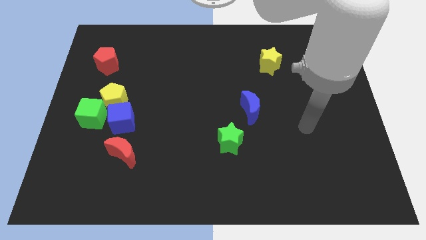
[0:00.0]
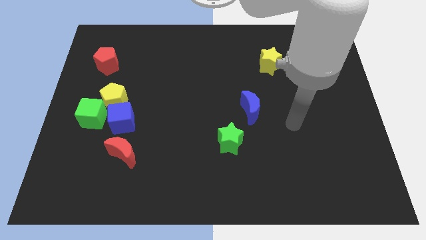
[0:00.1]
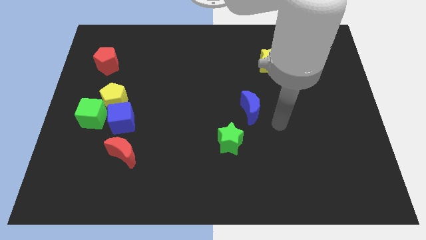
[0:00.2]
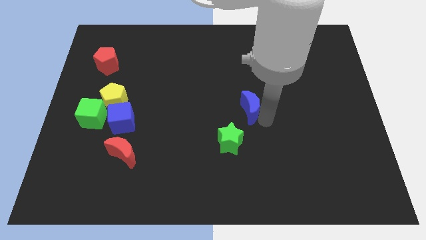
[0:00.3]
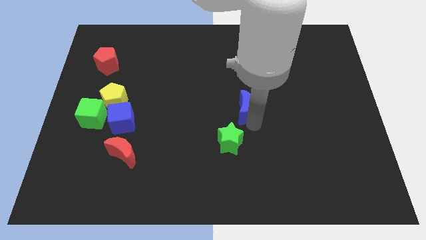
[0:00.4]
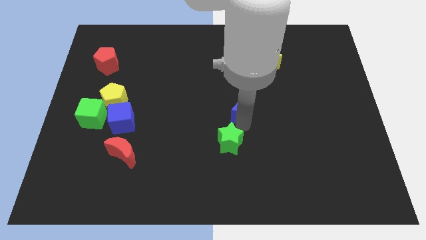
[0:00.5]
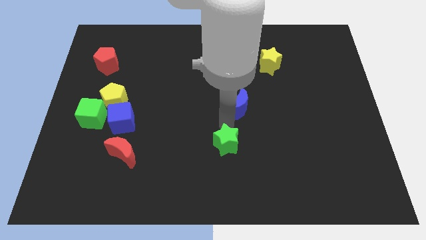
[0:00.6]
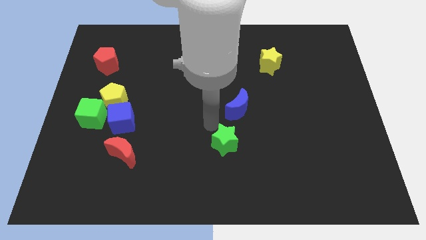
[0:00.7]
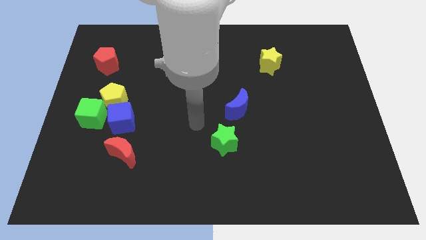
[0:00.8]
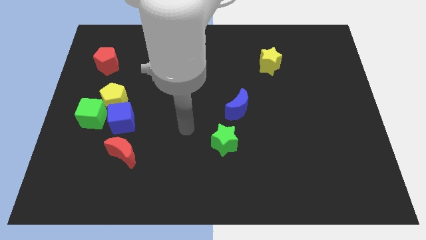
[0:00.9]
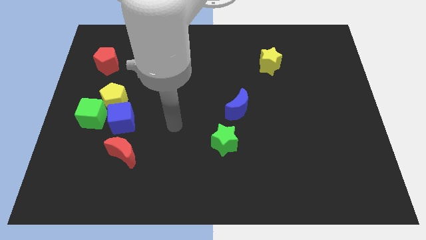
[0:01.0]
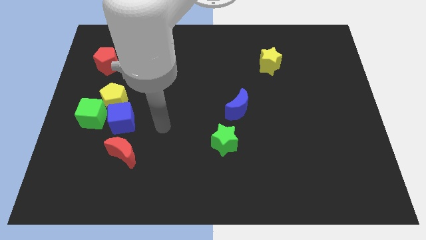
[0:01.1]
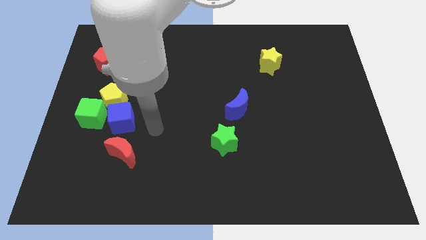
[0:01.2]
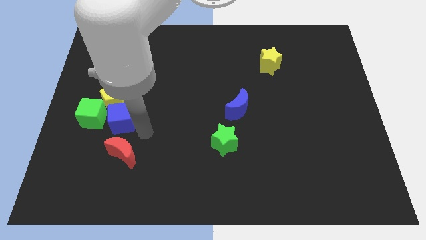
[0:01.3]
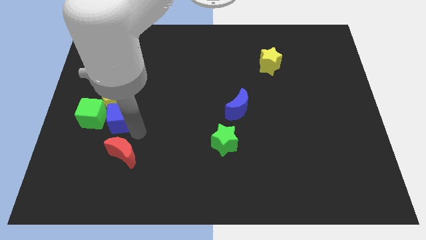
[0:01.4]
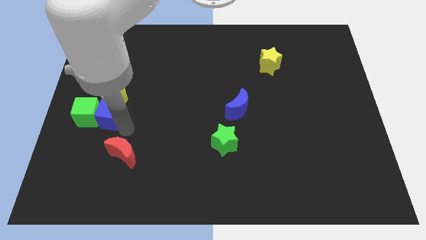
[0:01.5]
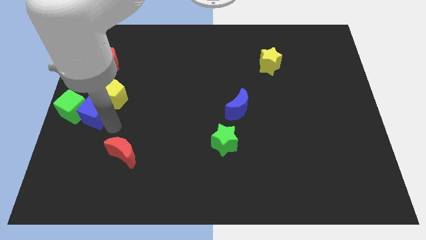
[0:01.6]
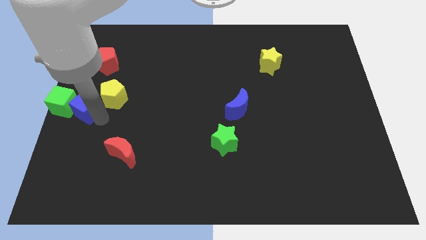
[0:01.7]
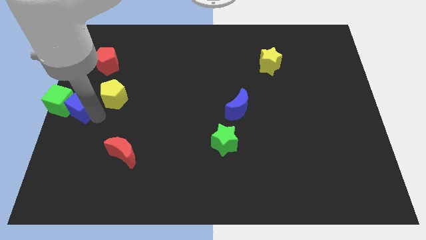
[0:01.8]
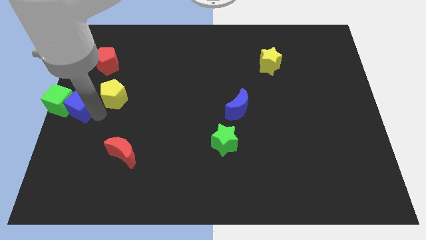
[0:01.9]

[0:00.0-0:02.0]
pull the yellow pentagon apart from the blue cube and green cube

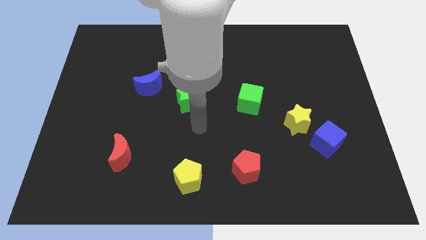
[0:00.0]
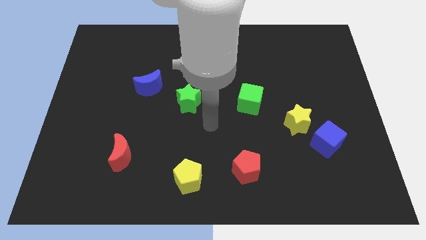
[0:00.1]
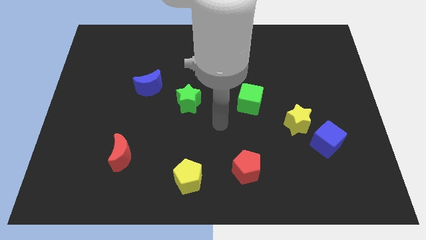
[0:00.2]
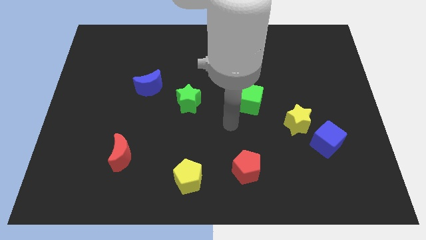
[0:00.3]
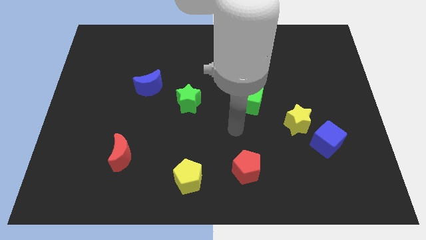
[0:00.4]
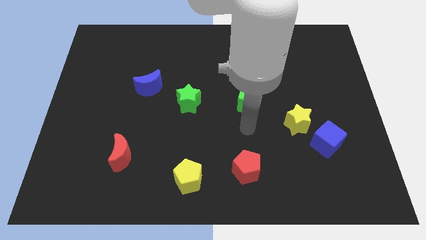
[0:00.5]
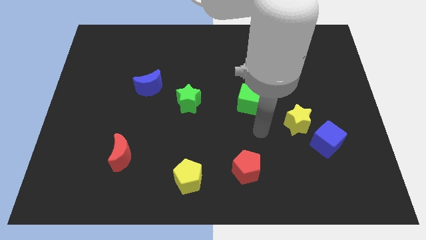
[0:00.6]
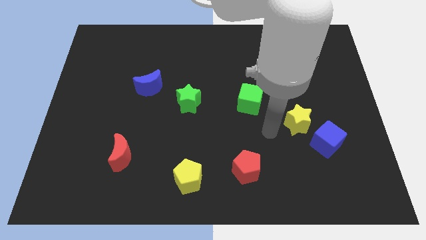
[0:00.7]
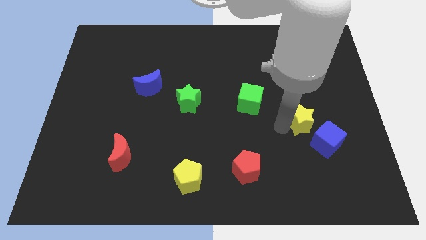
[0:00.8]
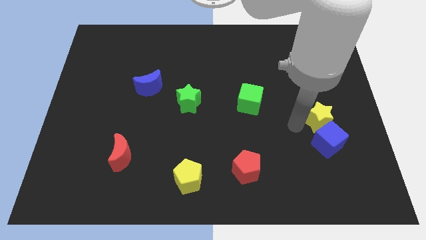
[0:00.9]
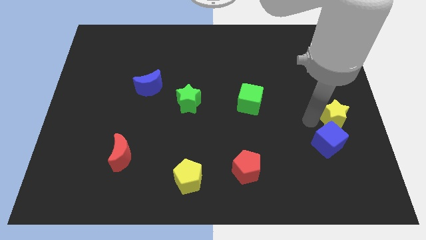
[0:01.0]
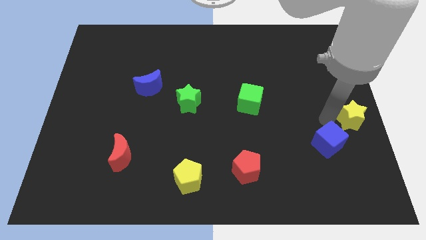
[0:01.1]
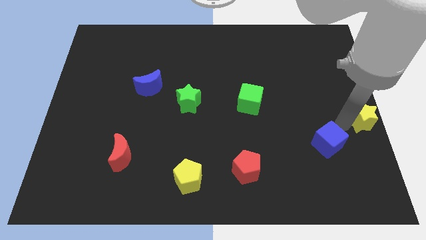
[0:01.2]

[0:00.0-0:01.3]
move the blue cube away from the yellow star

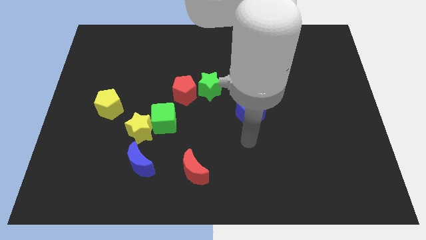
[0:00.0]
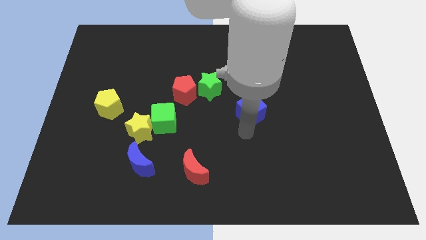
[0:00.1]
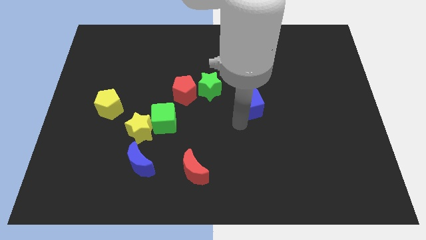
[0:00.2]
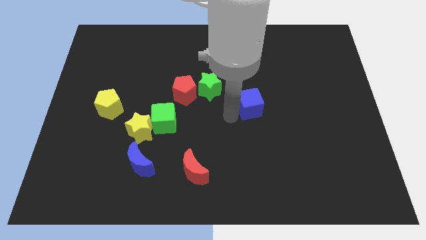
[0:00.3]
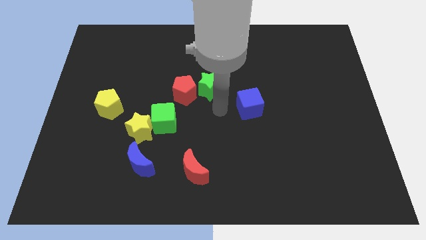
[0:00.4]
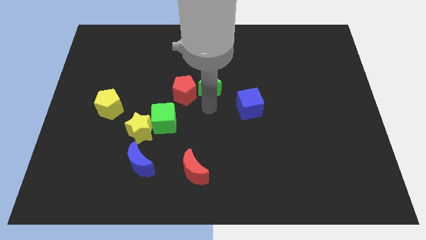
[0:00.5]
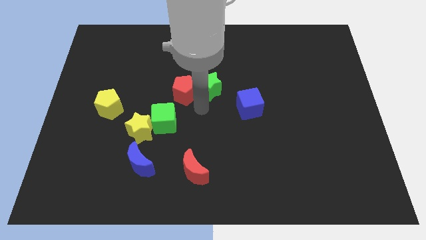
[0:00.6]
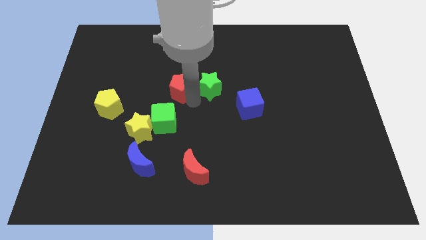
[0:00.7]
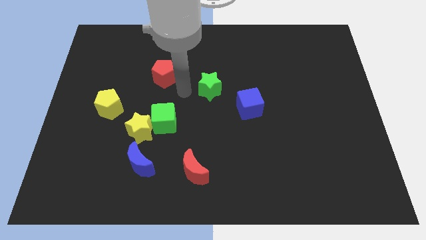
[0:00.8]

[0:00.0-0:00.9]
pull the green star apart from the red pentagon

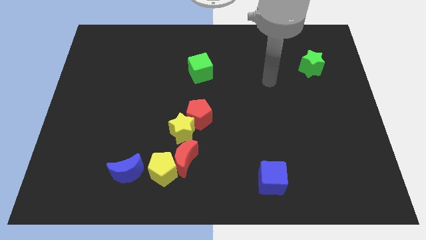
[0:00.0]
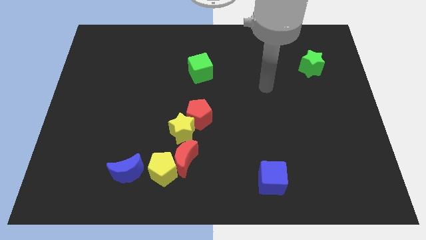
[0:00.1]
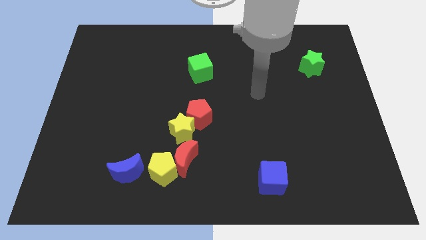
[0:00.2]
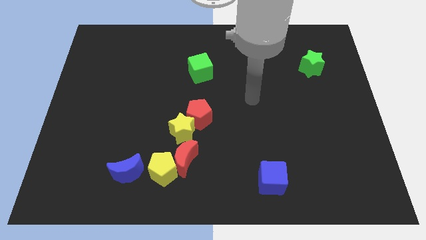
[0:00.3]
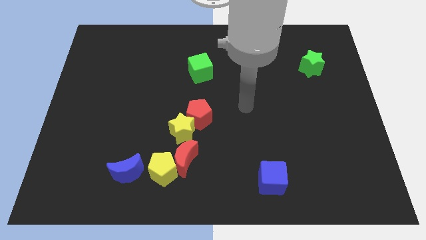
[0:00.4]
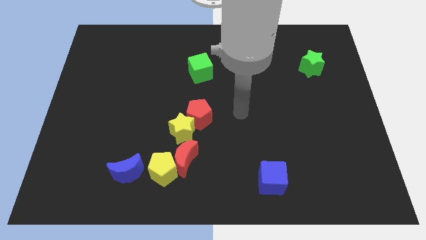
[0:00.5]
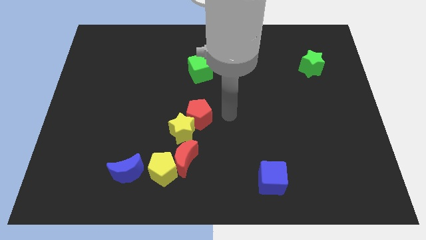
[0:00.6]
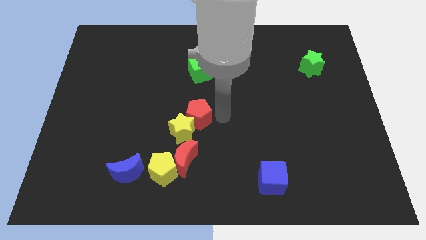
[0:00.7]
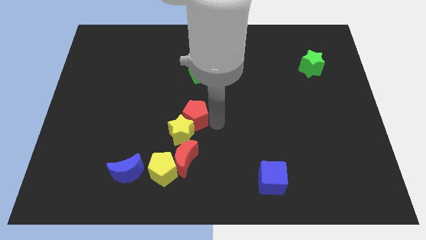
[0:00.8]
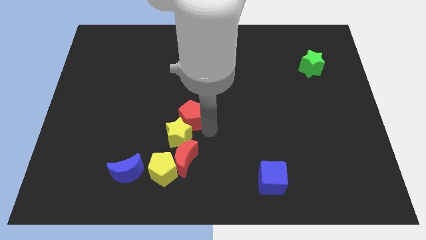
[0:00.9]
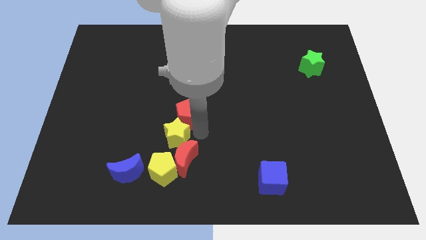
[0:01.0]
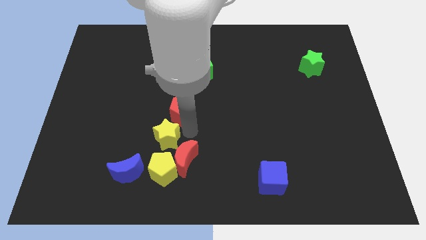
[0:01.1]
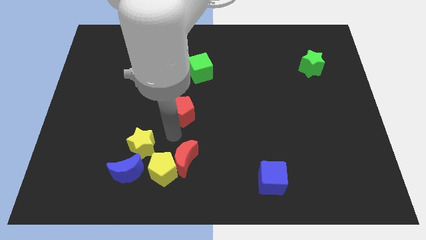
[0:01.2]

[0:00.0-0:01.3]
pull the red pentagon apart from the yellow star

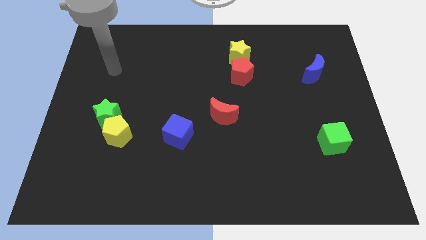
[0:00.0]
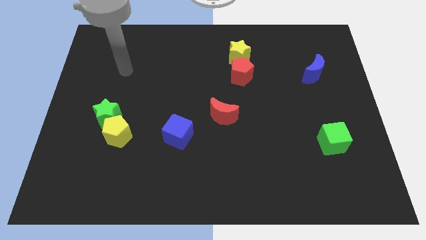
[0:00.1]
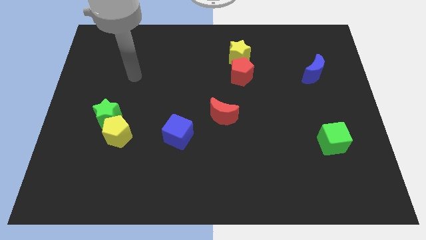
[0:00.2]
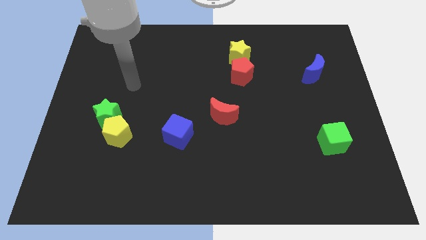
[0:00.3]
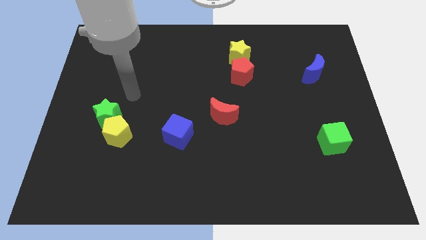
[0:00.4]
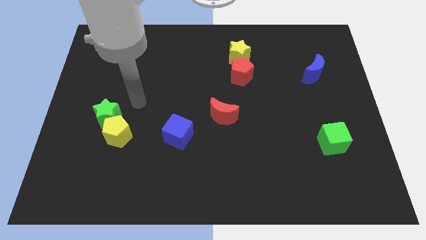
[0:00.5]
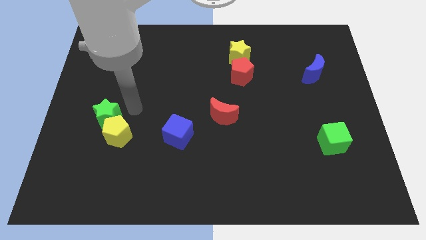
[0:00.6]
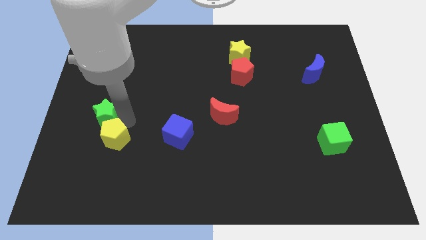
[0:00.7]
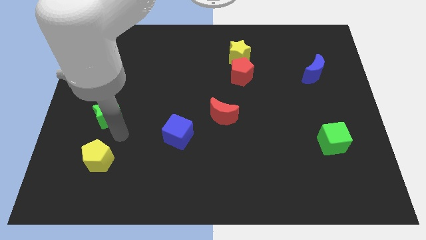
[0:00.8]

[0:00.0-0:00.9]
separate the green star from the yellow pentagon

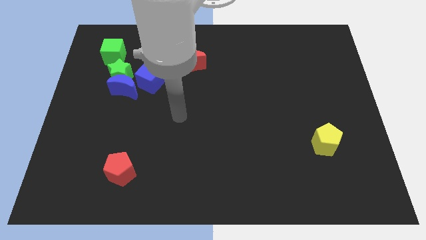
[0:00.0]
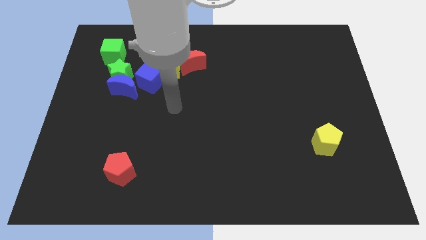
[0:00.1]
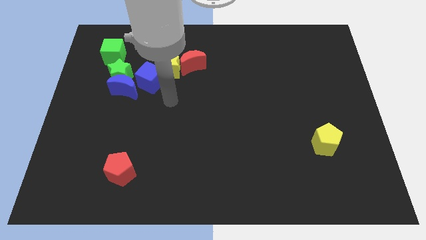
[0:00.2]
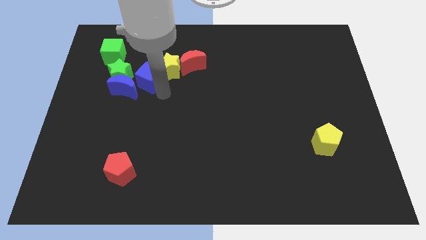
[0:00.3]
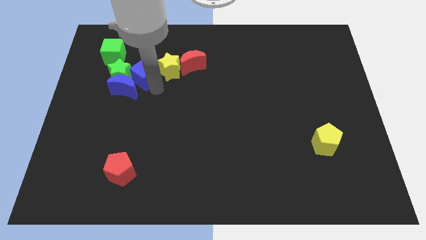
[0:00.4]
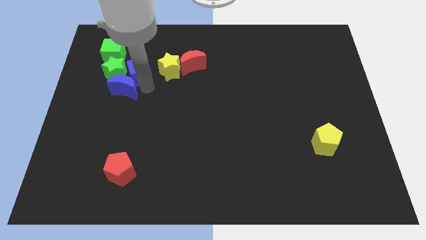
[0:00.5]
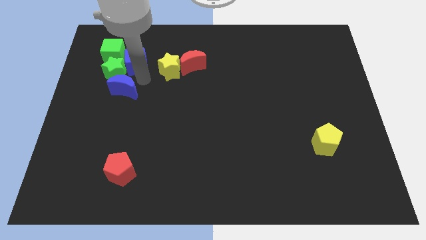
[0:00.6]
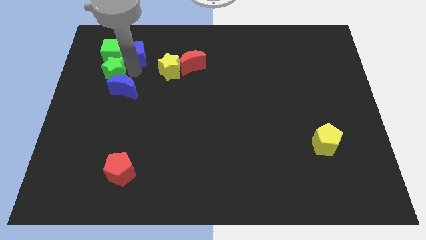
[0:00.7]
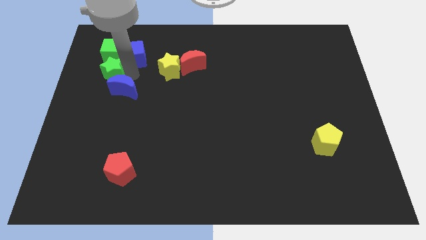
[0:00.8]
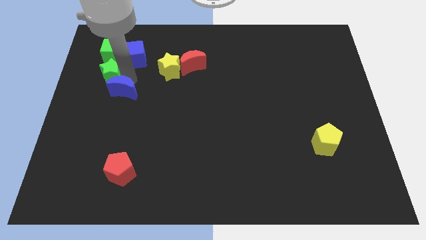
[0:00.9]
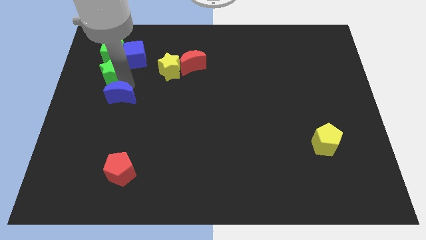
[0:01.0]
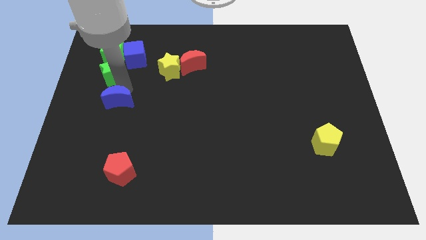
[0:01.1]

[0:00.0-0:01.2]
pull the blue moon apart from the green star and blue cube

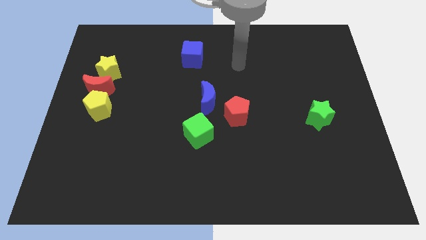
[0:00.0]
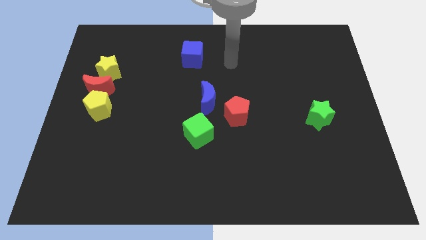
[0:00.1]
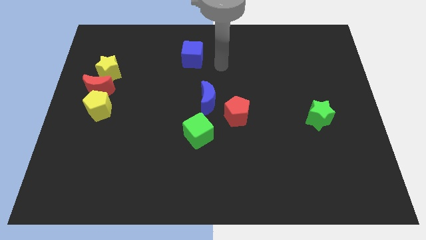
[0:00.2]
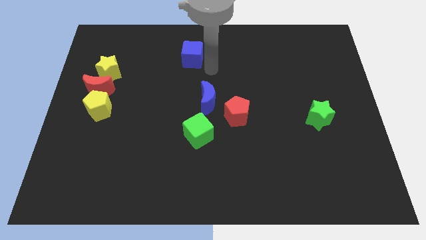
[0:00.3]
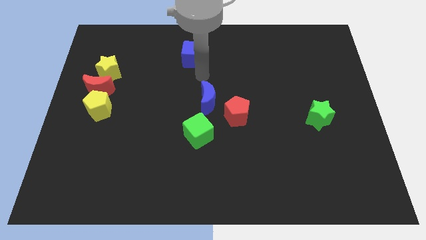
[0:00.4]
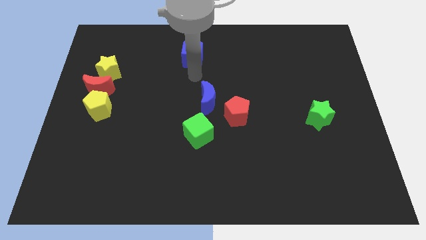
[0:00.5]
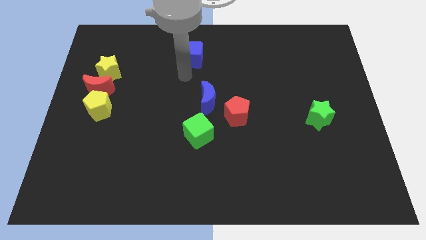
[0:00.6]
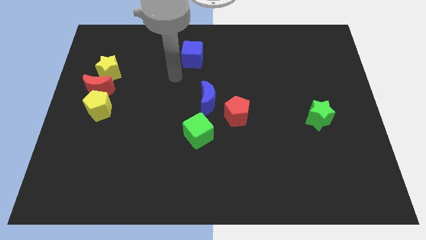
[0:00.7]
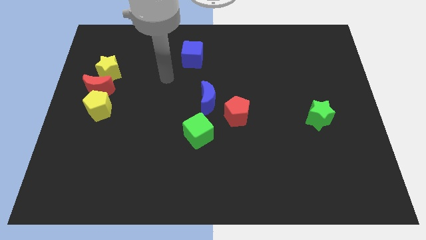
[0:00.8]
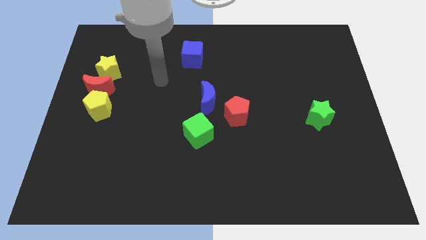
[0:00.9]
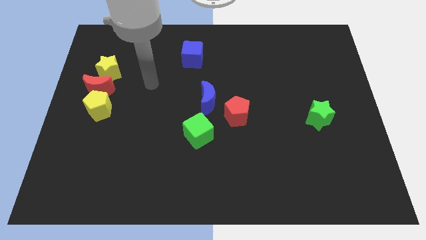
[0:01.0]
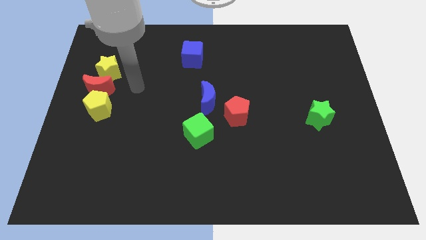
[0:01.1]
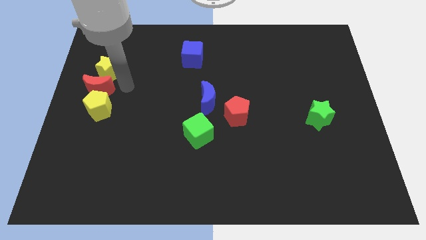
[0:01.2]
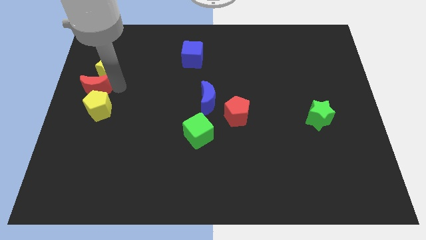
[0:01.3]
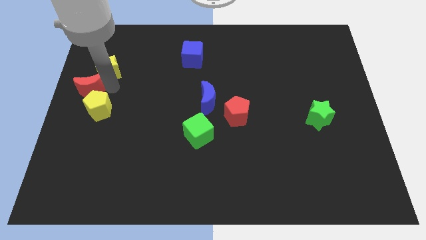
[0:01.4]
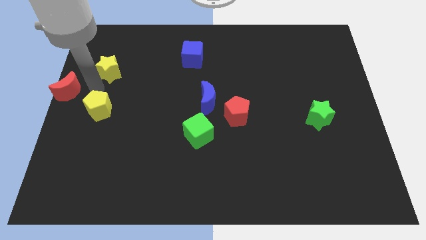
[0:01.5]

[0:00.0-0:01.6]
pull the yellow pentagon apart from the red moon
